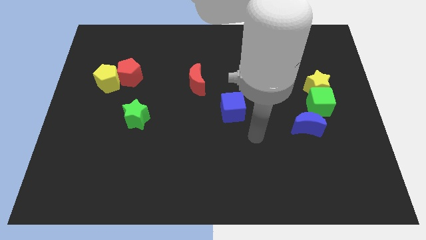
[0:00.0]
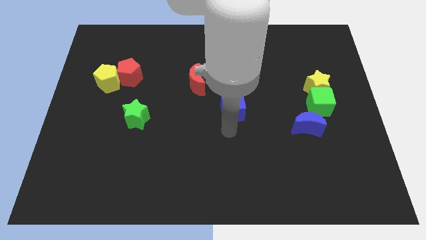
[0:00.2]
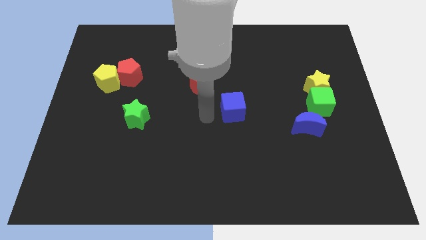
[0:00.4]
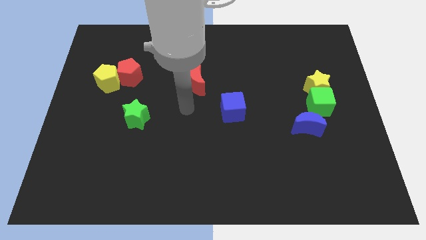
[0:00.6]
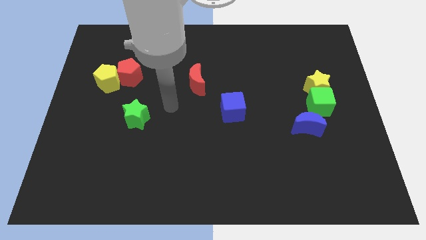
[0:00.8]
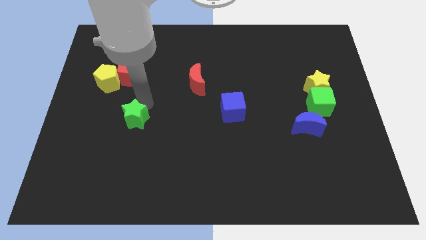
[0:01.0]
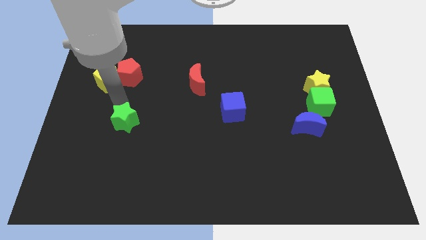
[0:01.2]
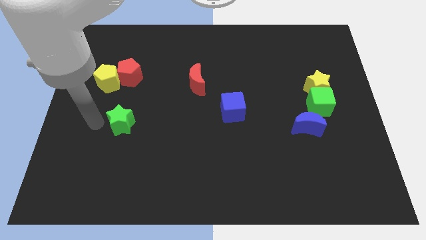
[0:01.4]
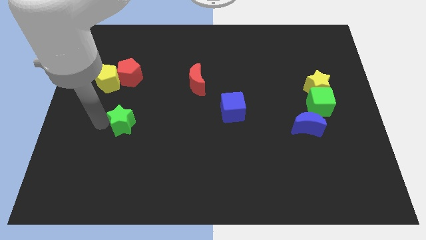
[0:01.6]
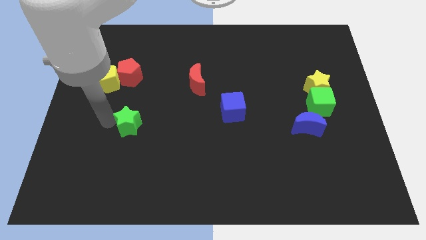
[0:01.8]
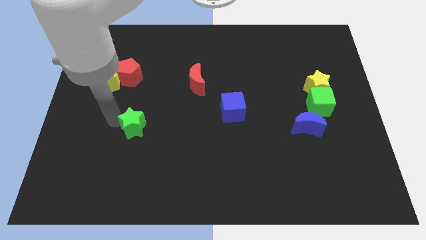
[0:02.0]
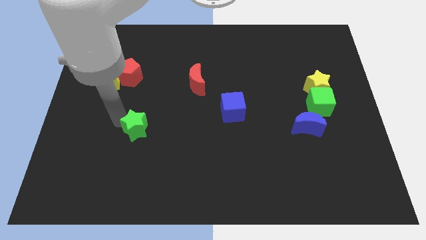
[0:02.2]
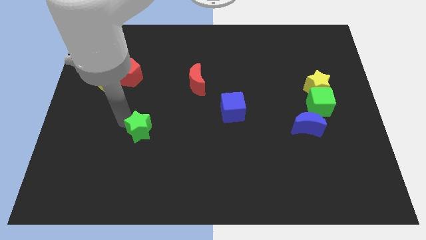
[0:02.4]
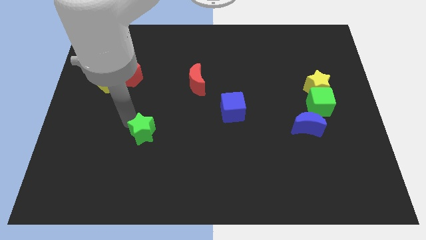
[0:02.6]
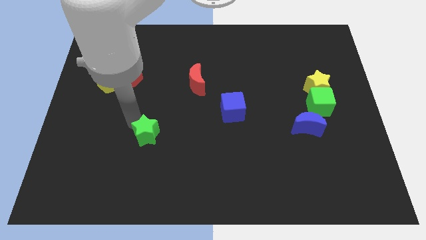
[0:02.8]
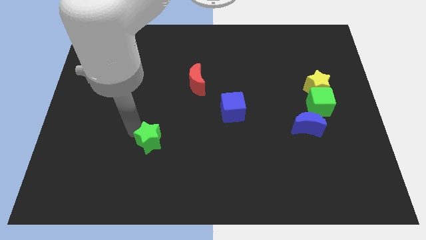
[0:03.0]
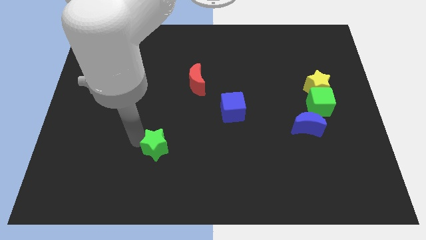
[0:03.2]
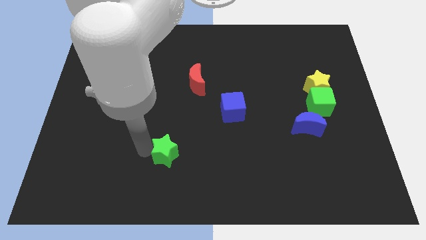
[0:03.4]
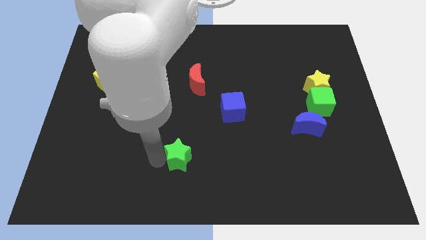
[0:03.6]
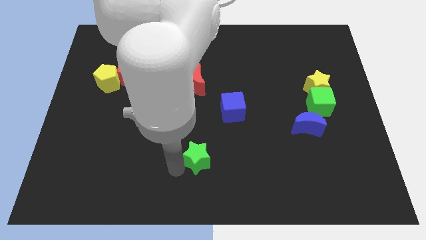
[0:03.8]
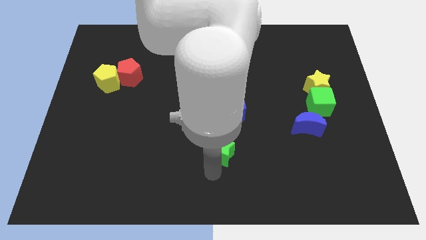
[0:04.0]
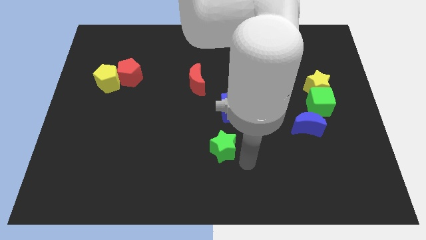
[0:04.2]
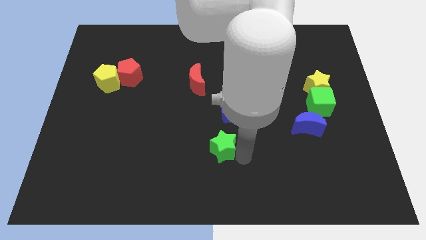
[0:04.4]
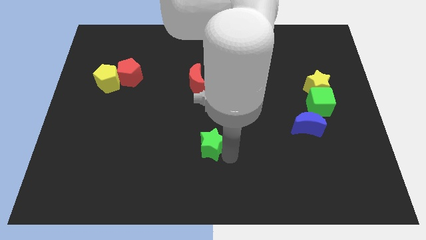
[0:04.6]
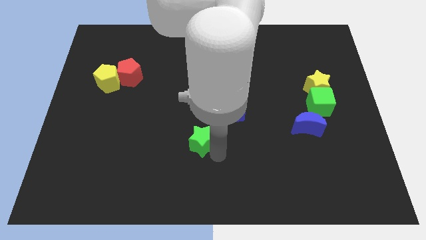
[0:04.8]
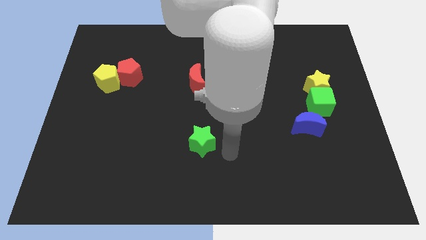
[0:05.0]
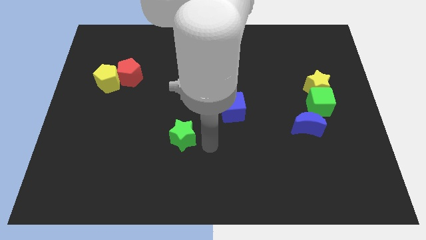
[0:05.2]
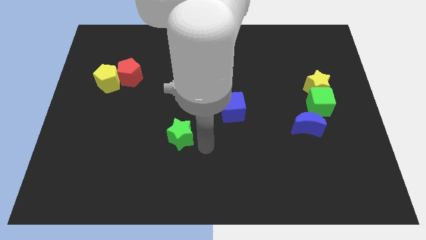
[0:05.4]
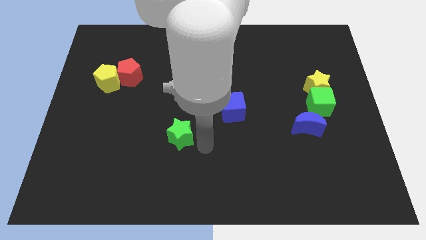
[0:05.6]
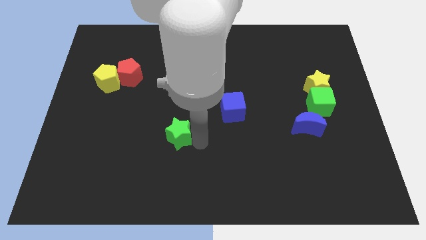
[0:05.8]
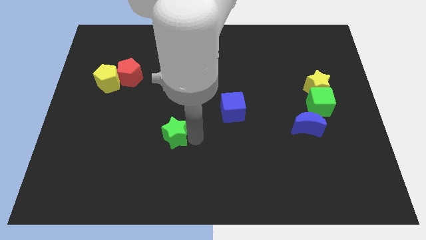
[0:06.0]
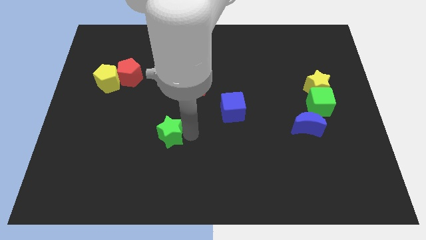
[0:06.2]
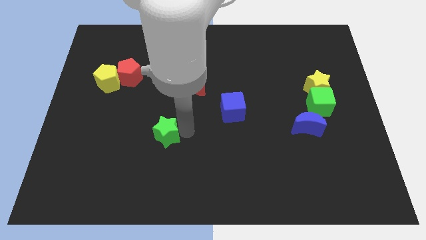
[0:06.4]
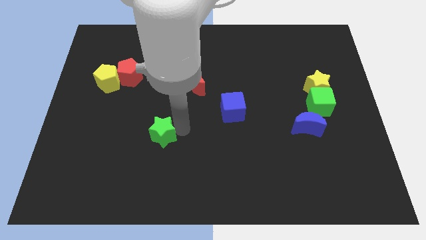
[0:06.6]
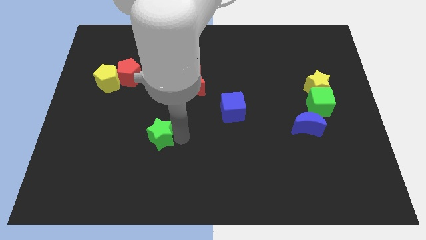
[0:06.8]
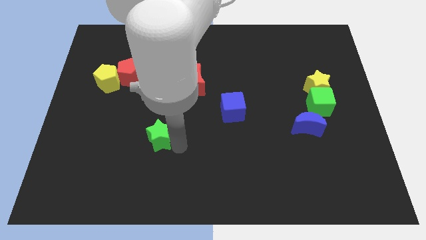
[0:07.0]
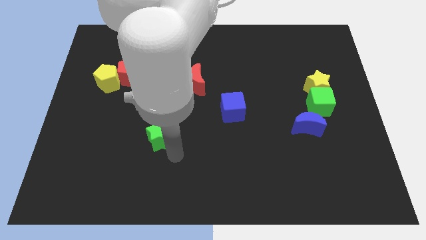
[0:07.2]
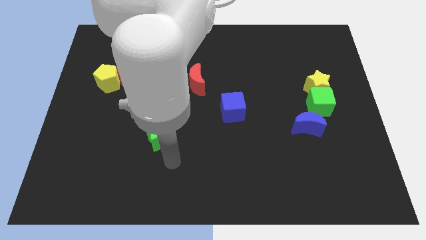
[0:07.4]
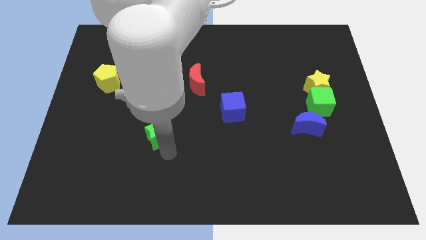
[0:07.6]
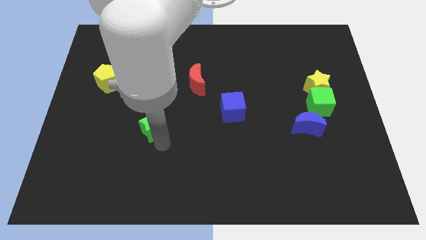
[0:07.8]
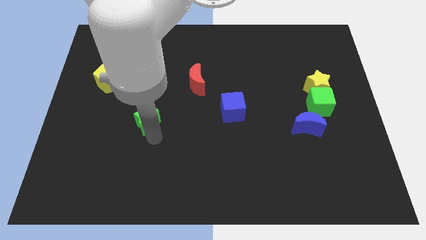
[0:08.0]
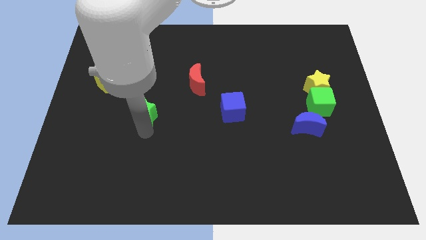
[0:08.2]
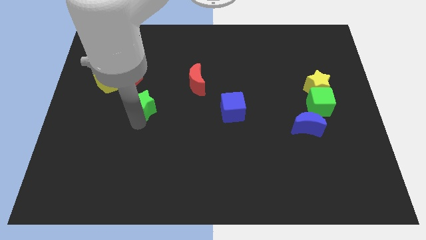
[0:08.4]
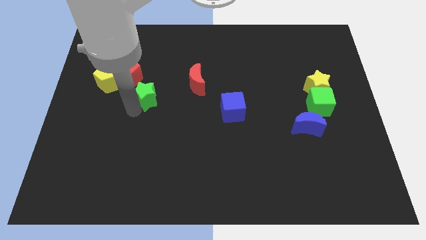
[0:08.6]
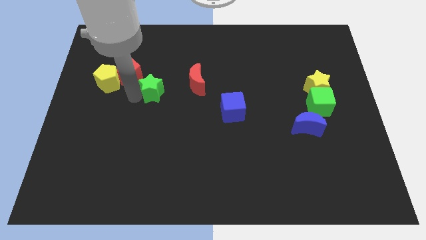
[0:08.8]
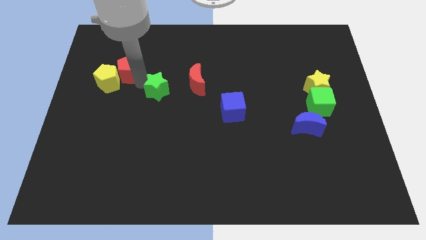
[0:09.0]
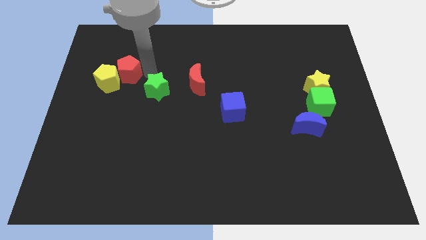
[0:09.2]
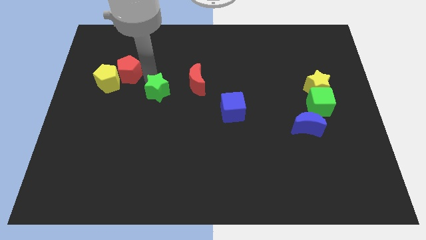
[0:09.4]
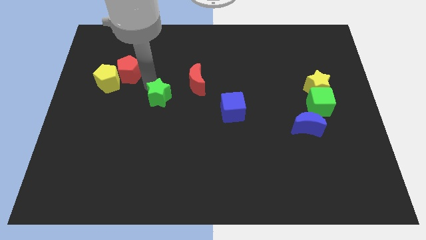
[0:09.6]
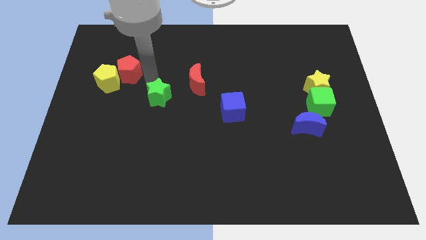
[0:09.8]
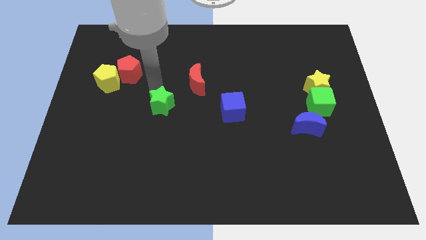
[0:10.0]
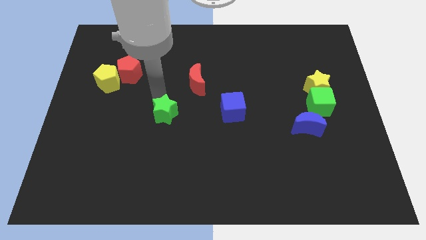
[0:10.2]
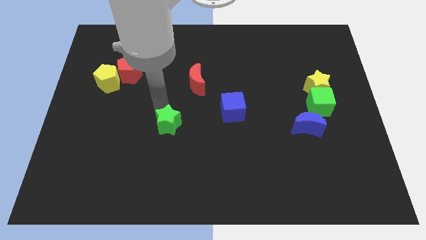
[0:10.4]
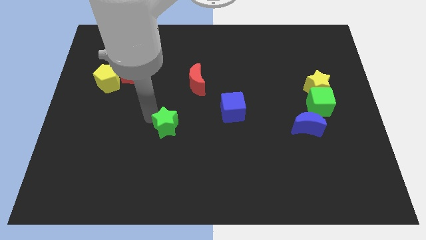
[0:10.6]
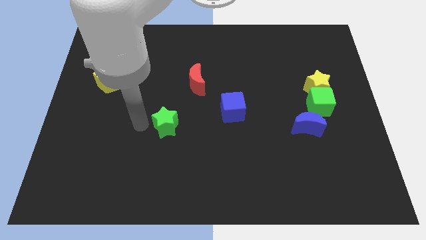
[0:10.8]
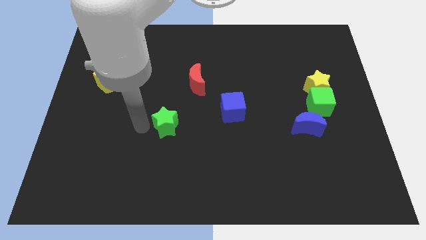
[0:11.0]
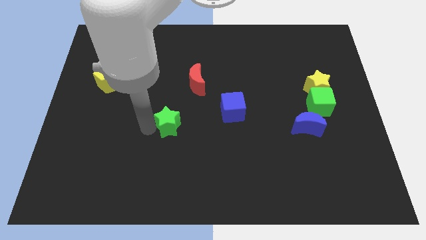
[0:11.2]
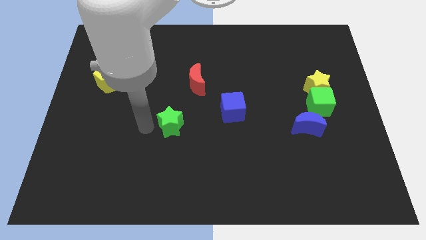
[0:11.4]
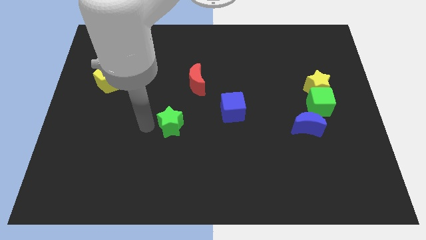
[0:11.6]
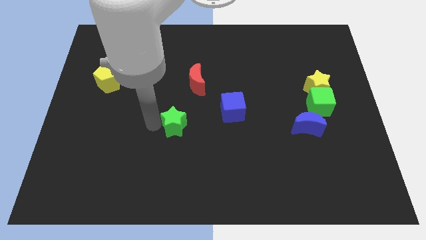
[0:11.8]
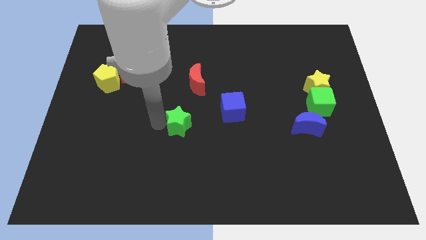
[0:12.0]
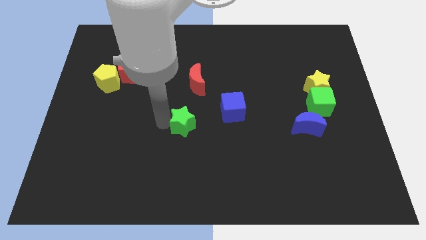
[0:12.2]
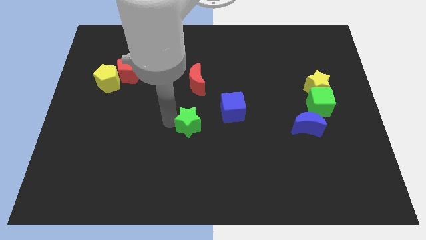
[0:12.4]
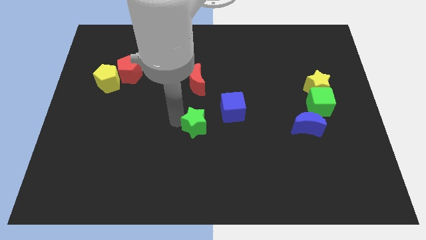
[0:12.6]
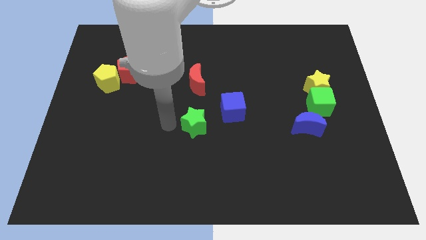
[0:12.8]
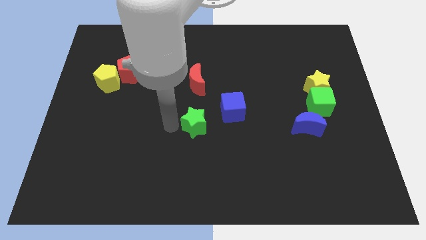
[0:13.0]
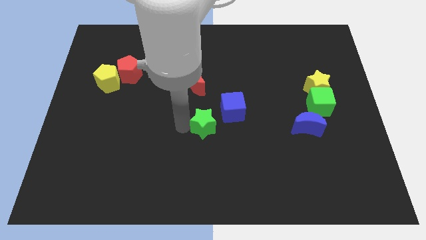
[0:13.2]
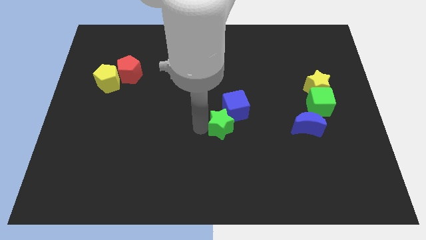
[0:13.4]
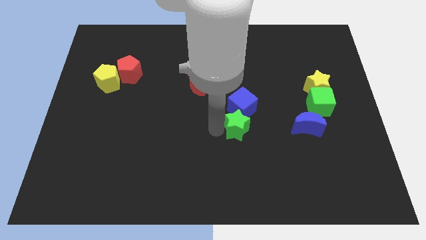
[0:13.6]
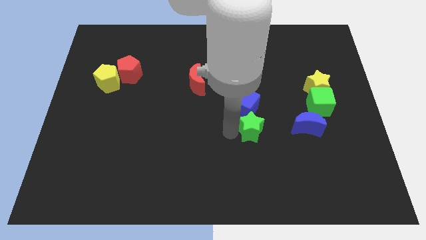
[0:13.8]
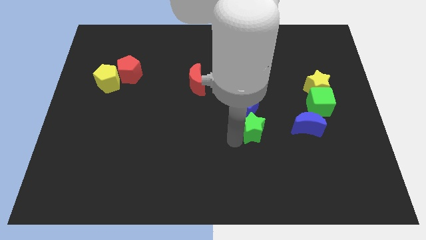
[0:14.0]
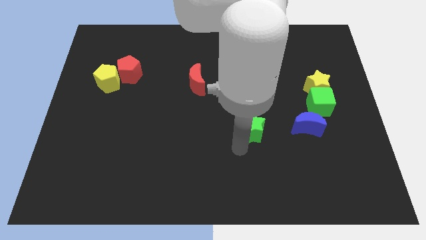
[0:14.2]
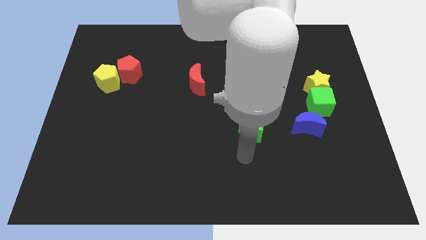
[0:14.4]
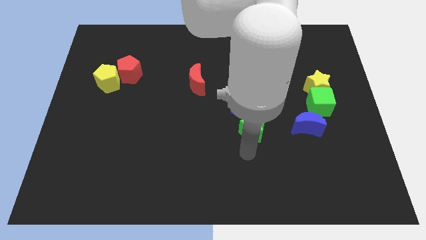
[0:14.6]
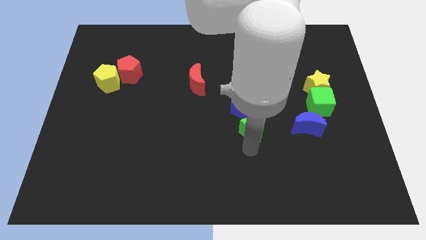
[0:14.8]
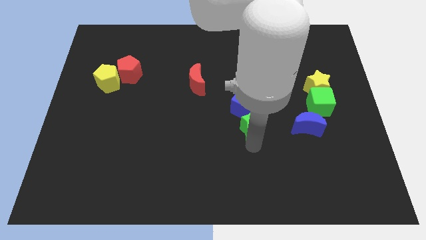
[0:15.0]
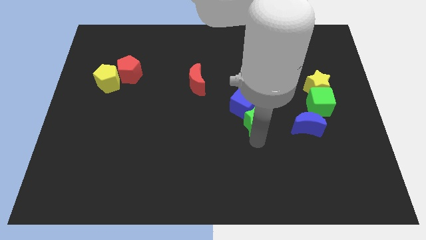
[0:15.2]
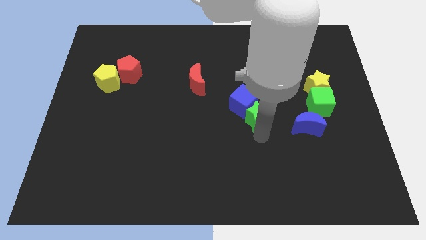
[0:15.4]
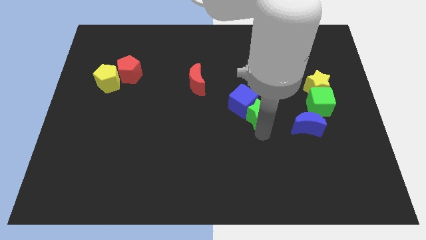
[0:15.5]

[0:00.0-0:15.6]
put the green star left of the green cube

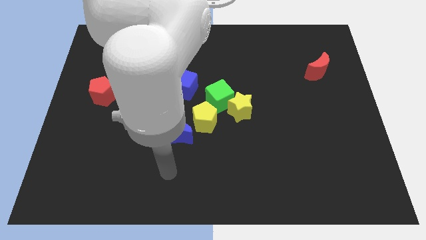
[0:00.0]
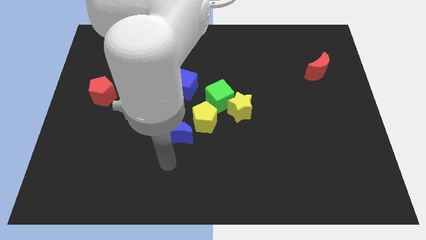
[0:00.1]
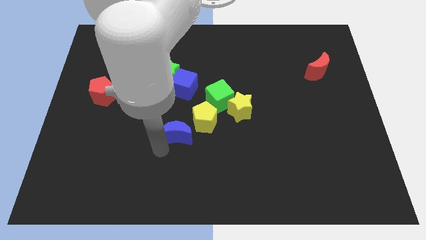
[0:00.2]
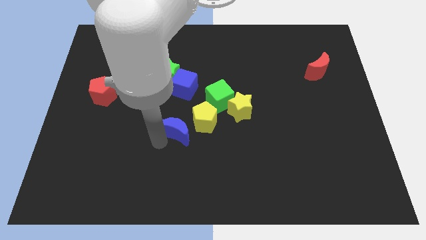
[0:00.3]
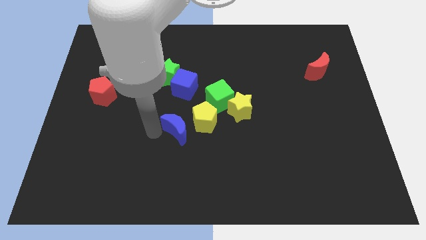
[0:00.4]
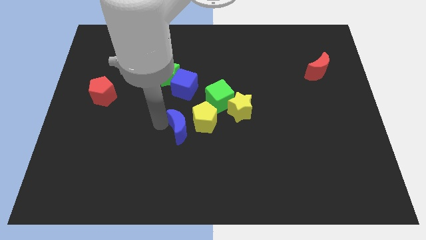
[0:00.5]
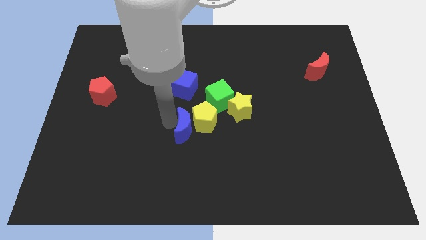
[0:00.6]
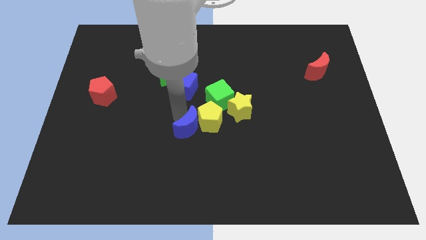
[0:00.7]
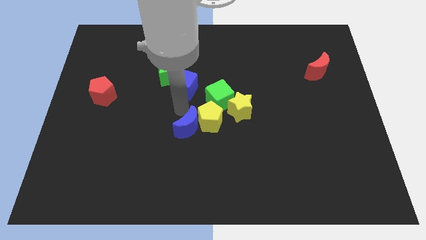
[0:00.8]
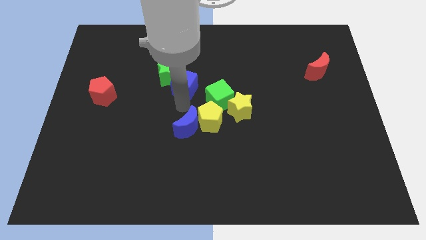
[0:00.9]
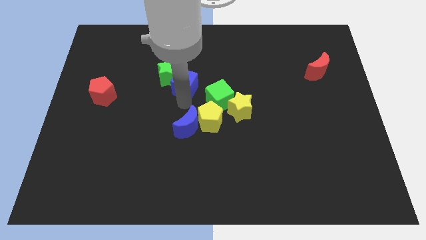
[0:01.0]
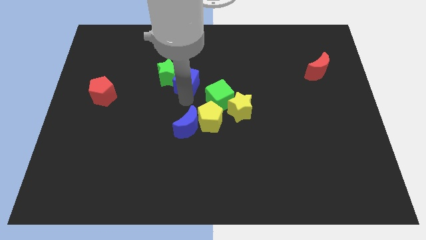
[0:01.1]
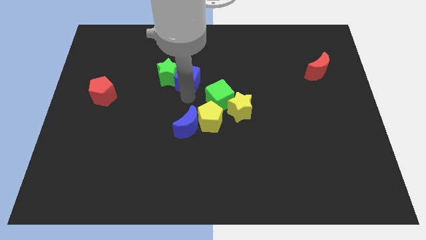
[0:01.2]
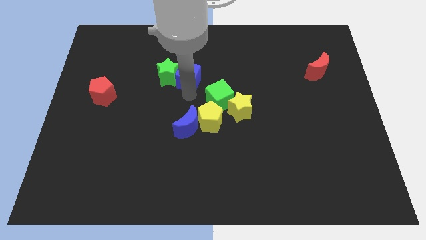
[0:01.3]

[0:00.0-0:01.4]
slide the blue cube to the top right side of the green star
